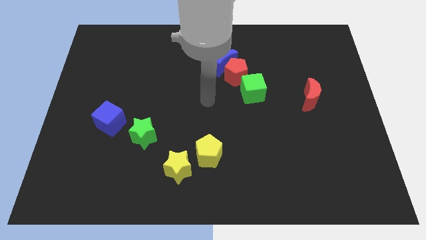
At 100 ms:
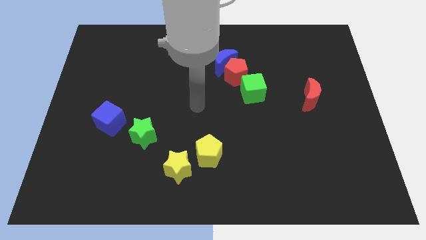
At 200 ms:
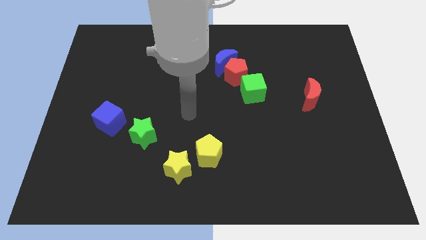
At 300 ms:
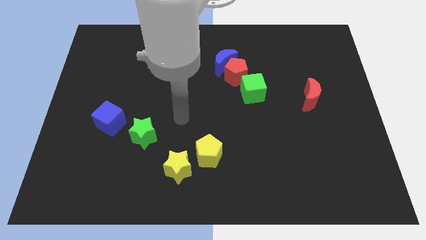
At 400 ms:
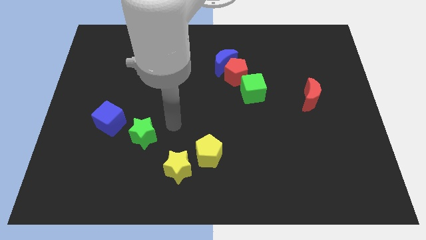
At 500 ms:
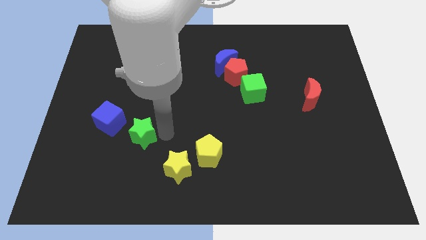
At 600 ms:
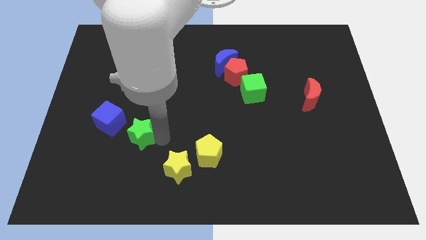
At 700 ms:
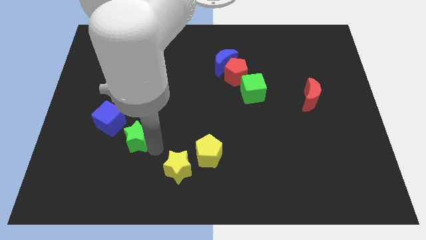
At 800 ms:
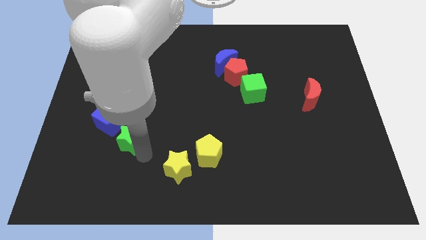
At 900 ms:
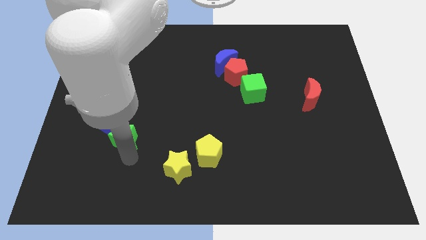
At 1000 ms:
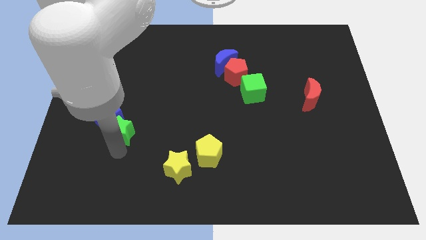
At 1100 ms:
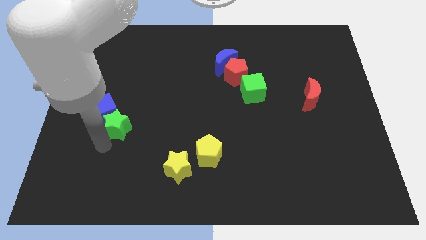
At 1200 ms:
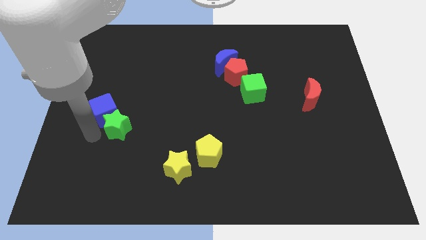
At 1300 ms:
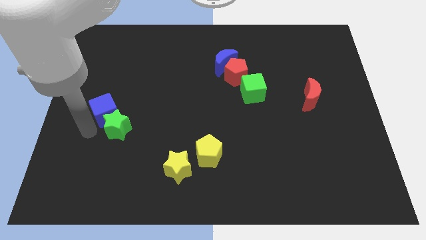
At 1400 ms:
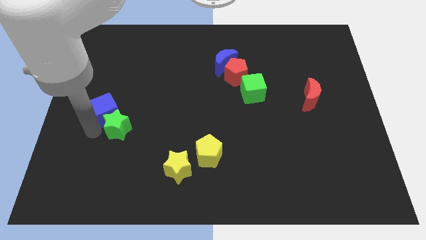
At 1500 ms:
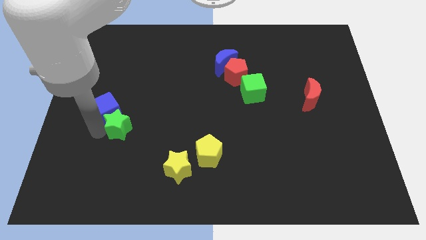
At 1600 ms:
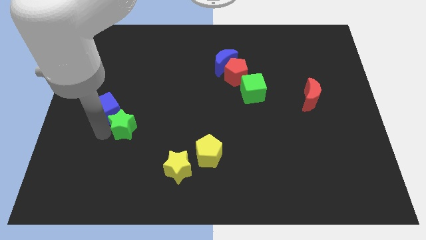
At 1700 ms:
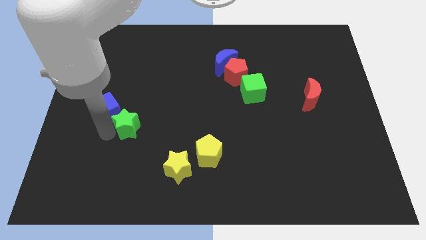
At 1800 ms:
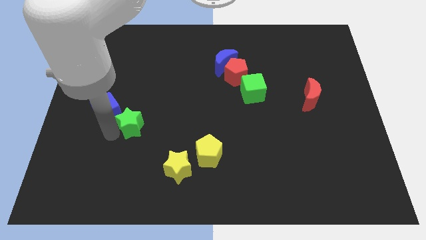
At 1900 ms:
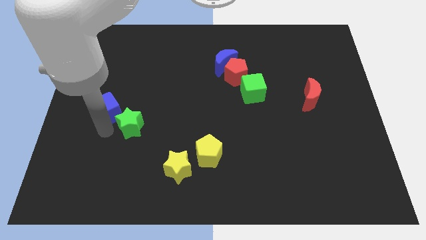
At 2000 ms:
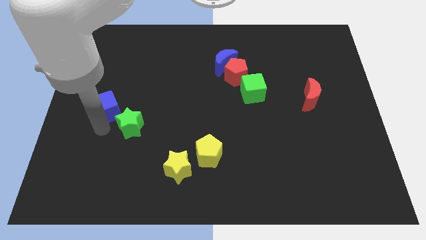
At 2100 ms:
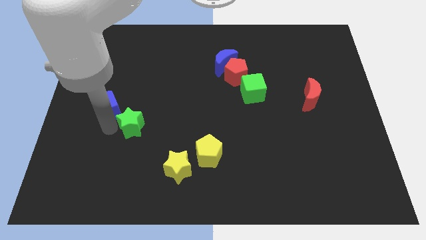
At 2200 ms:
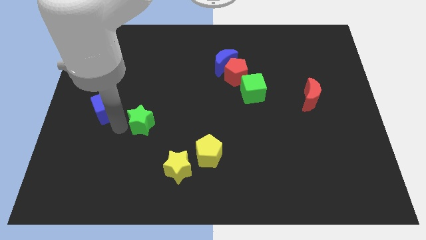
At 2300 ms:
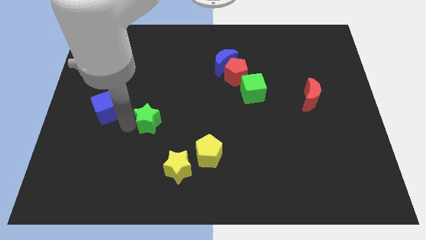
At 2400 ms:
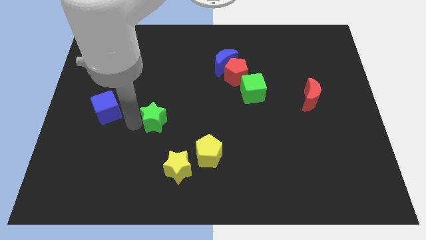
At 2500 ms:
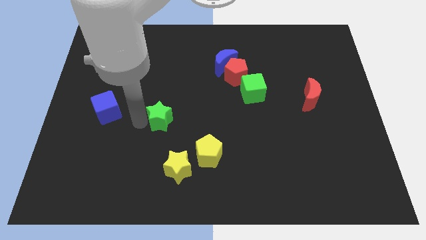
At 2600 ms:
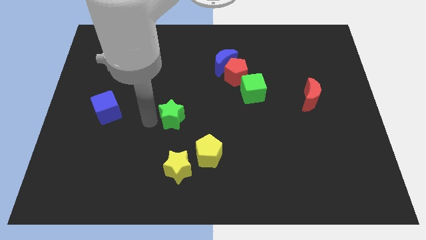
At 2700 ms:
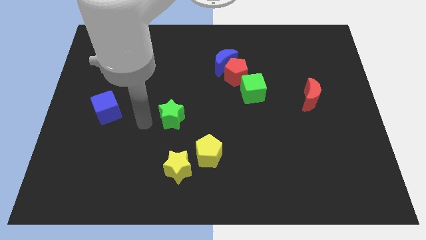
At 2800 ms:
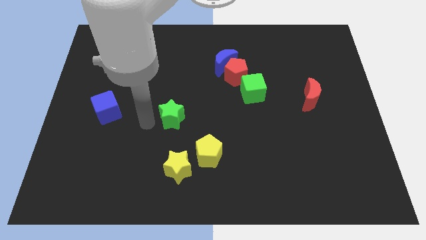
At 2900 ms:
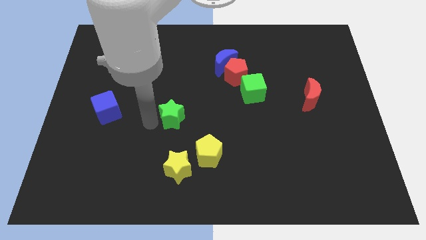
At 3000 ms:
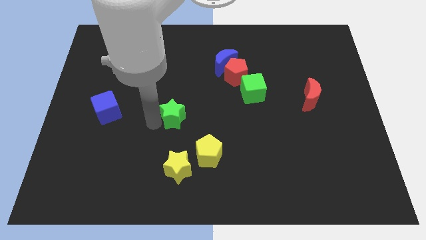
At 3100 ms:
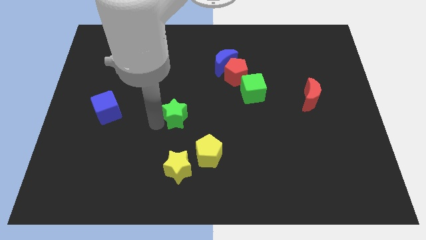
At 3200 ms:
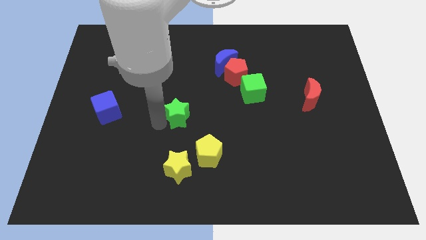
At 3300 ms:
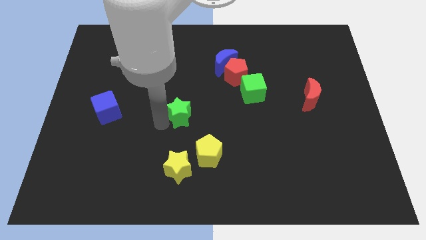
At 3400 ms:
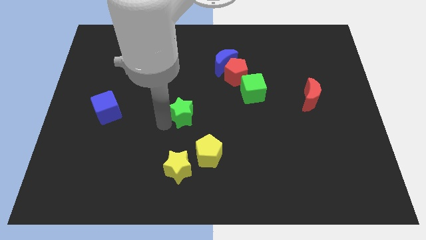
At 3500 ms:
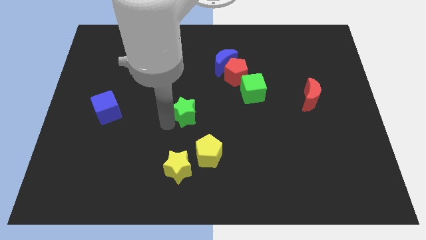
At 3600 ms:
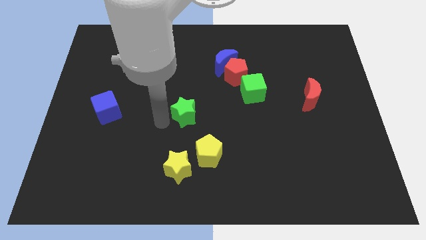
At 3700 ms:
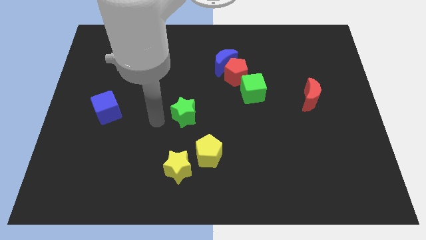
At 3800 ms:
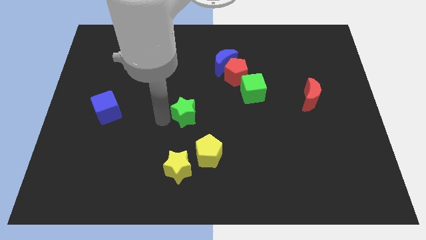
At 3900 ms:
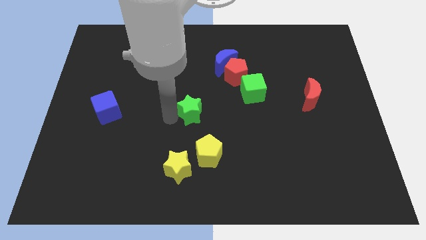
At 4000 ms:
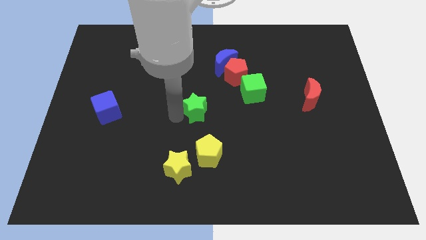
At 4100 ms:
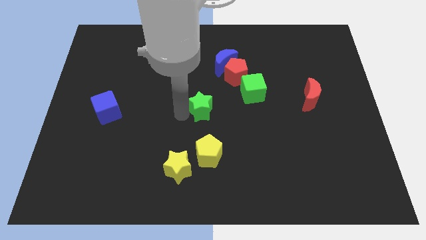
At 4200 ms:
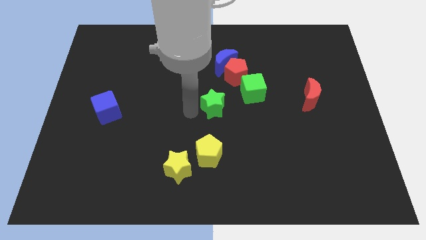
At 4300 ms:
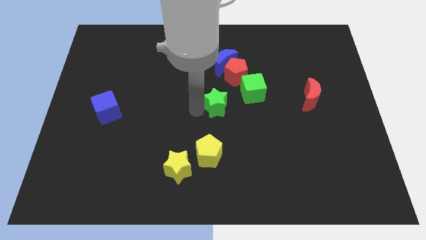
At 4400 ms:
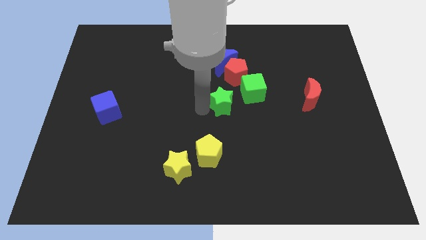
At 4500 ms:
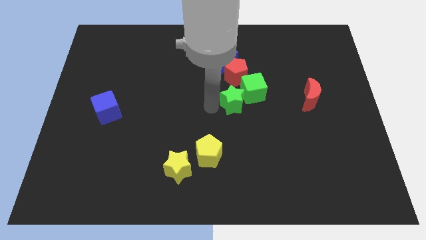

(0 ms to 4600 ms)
slide the green star towards the green cube

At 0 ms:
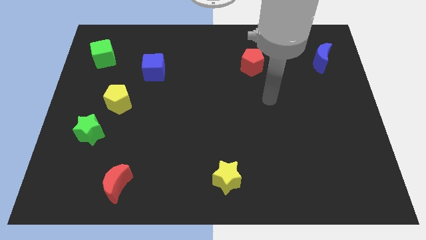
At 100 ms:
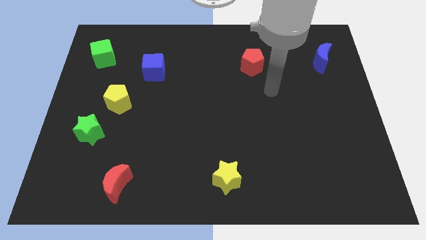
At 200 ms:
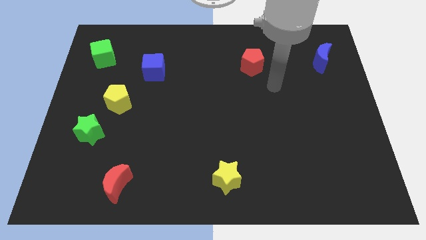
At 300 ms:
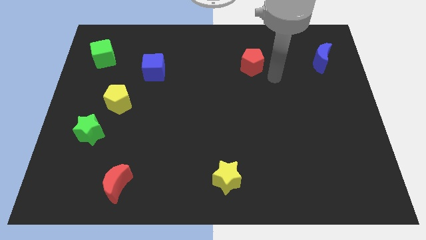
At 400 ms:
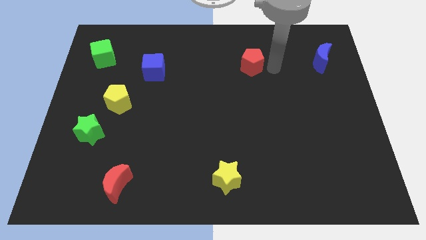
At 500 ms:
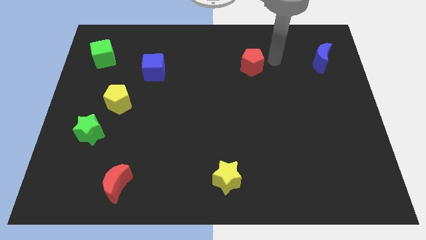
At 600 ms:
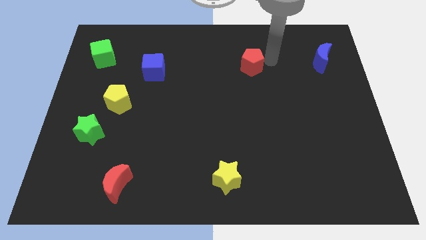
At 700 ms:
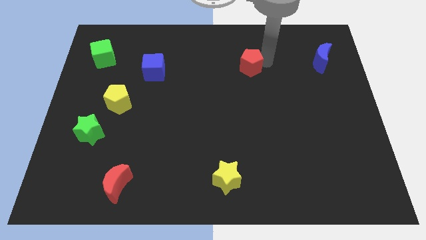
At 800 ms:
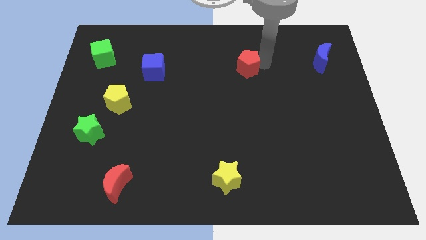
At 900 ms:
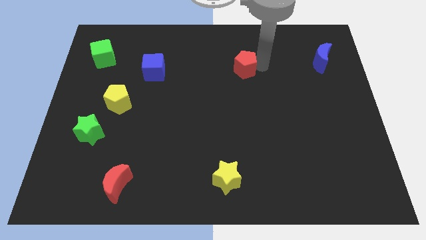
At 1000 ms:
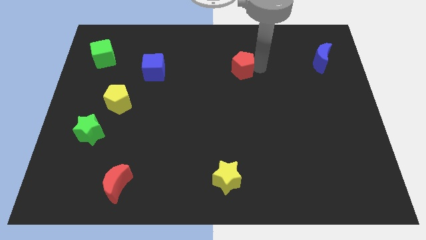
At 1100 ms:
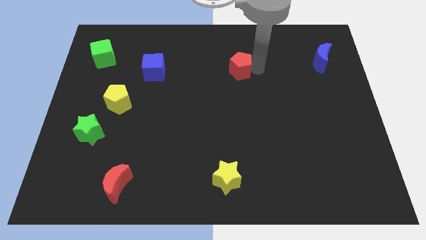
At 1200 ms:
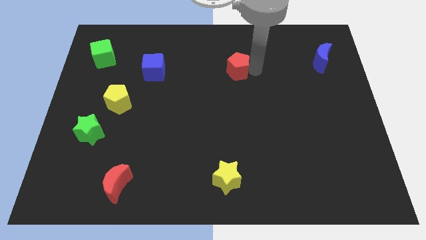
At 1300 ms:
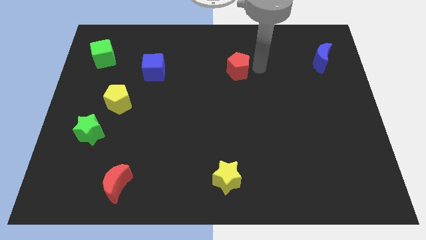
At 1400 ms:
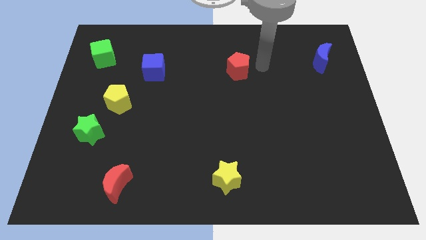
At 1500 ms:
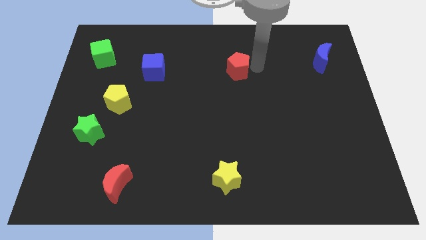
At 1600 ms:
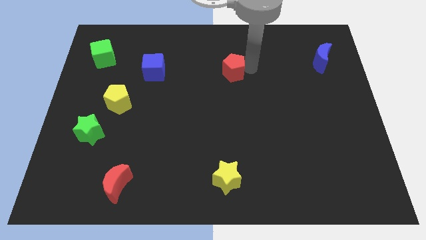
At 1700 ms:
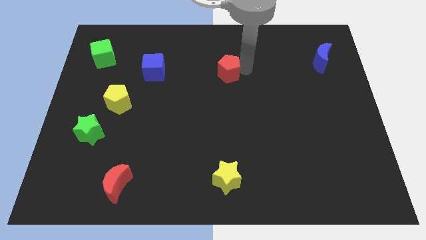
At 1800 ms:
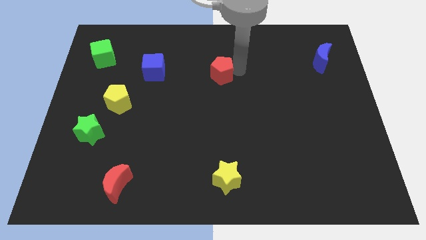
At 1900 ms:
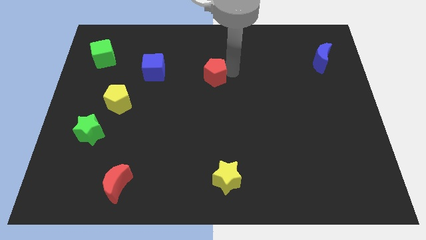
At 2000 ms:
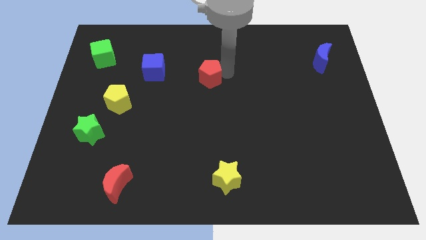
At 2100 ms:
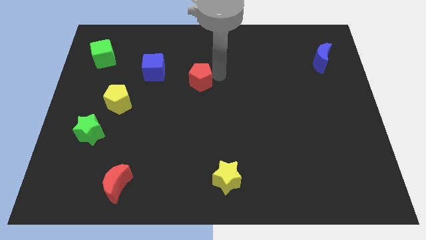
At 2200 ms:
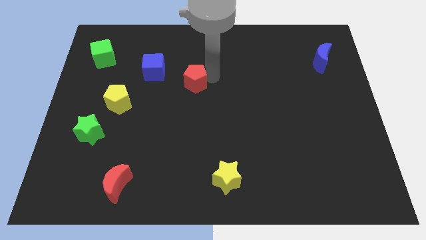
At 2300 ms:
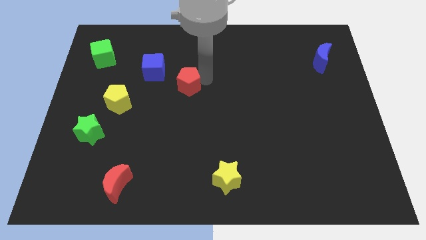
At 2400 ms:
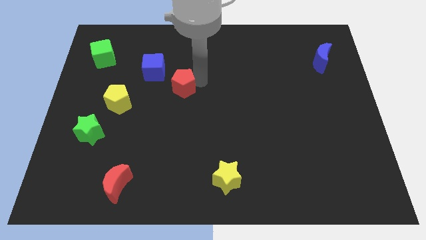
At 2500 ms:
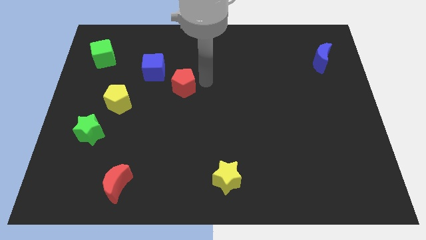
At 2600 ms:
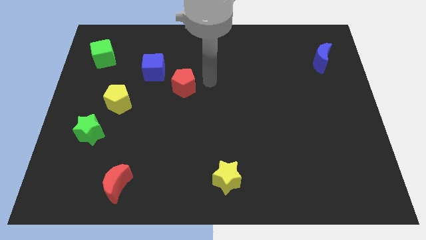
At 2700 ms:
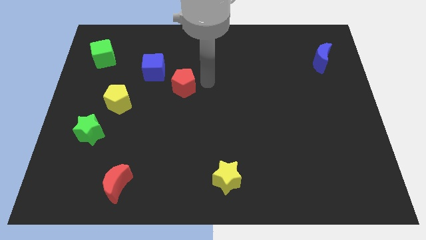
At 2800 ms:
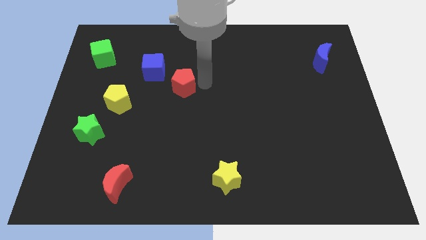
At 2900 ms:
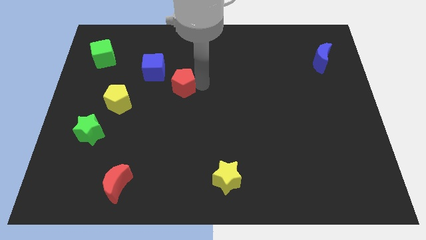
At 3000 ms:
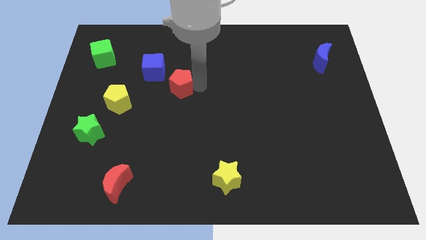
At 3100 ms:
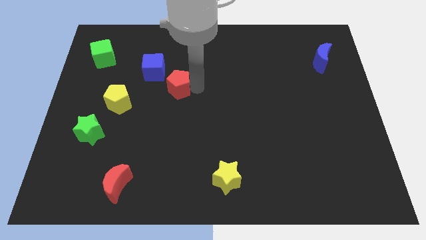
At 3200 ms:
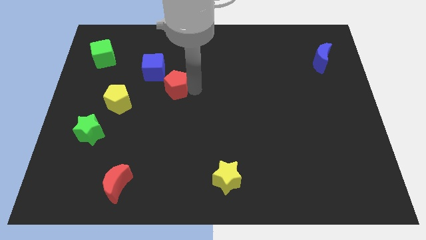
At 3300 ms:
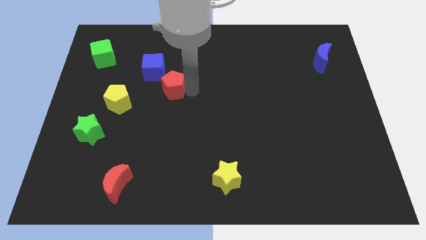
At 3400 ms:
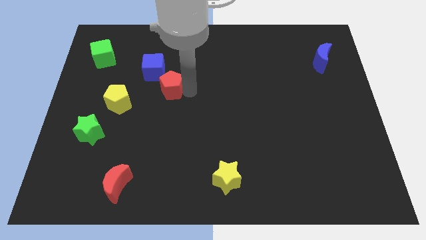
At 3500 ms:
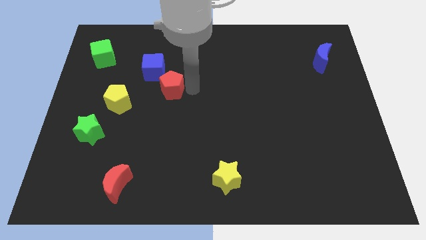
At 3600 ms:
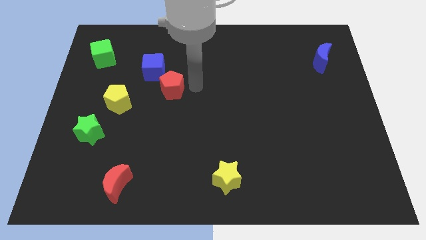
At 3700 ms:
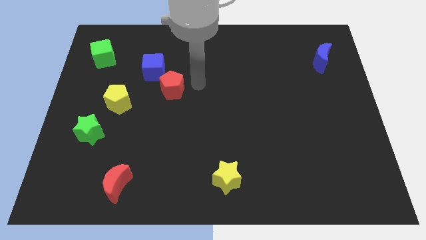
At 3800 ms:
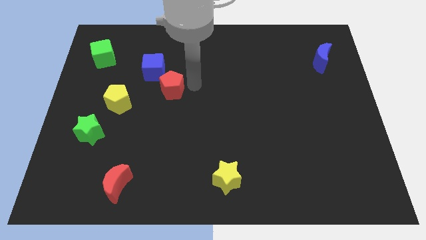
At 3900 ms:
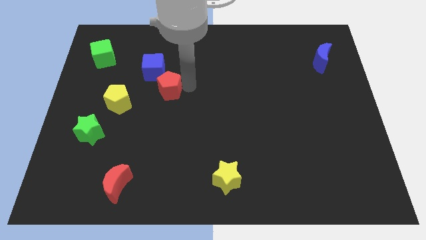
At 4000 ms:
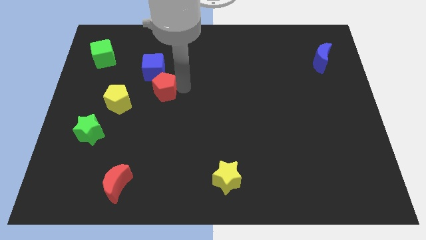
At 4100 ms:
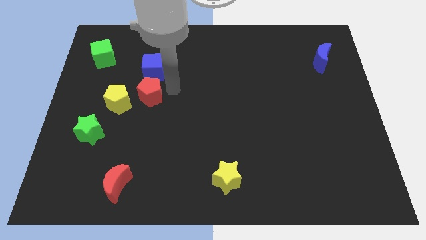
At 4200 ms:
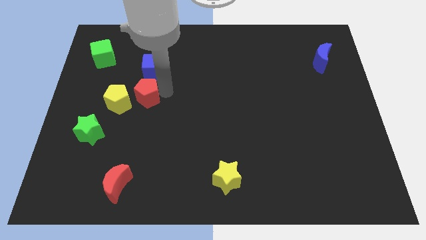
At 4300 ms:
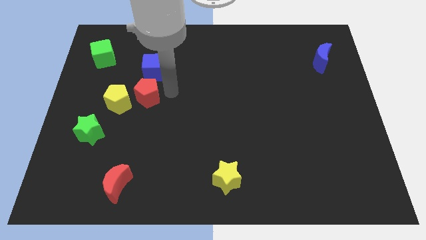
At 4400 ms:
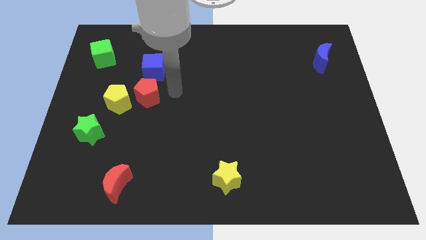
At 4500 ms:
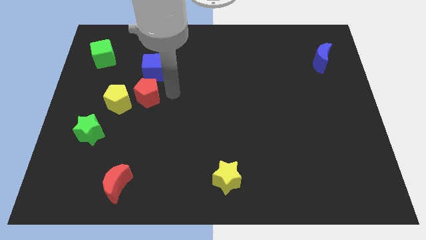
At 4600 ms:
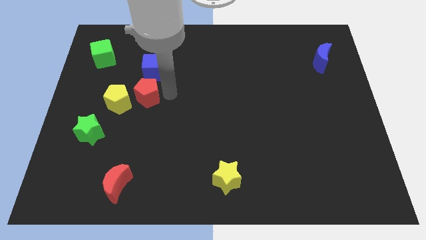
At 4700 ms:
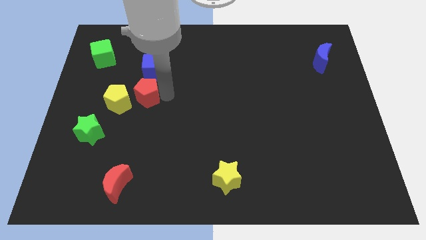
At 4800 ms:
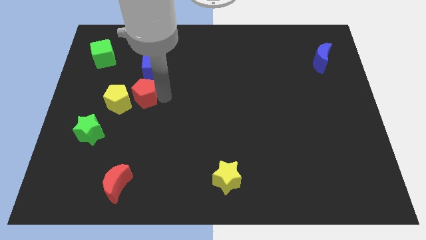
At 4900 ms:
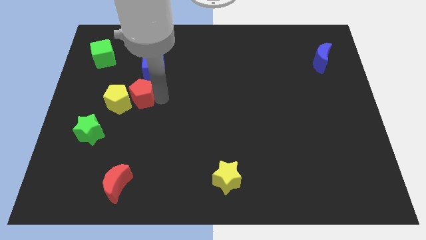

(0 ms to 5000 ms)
move the red pentagon next to the yellow pentagon
